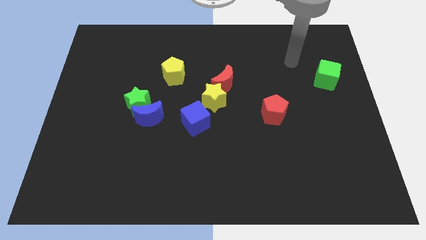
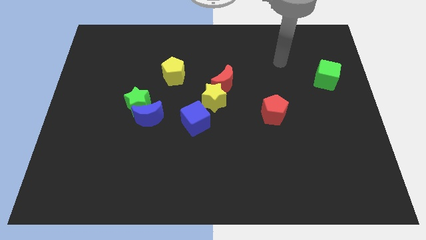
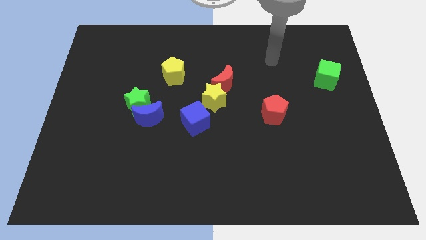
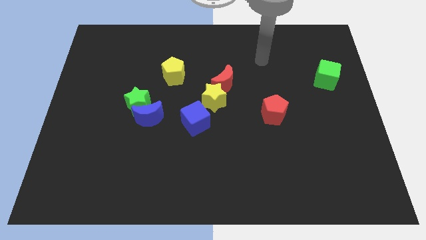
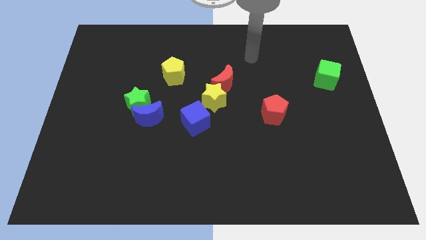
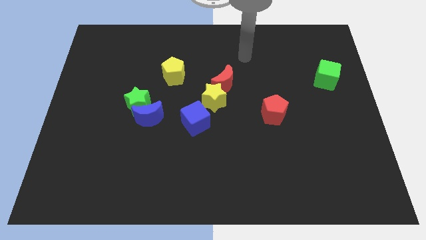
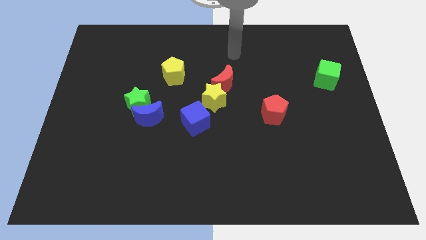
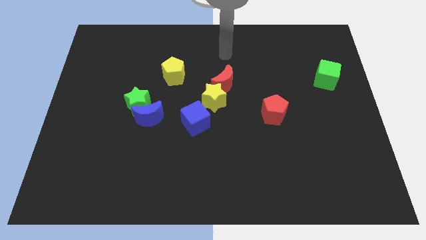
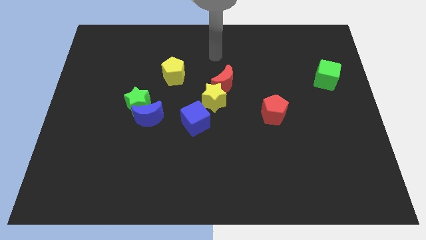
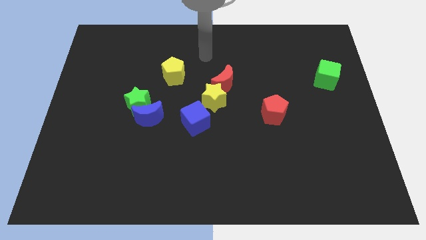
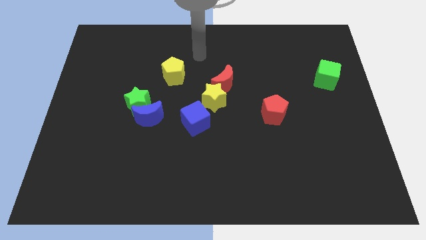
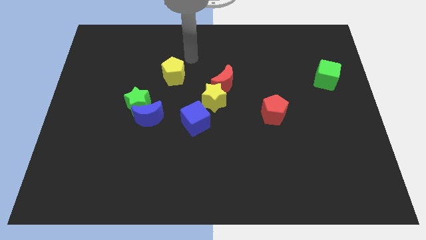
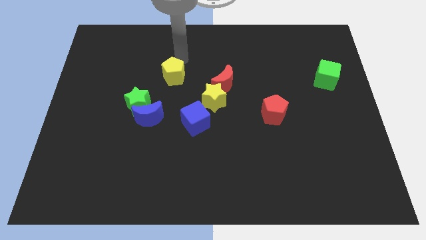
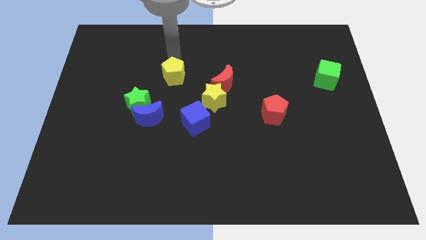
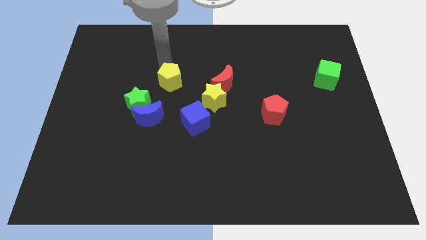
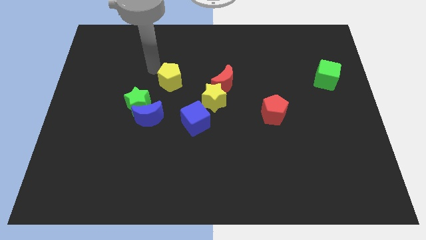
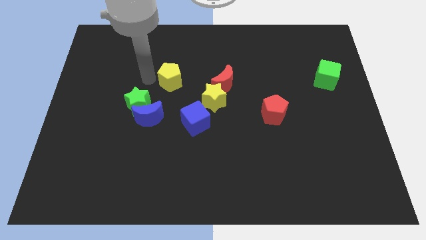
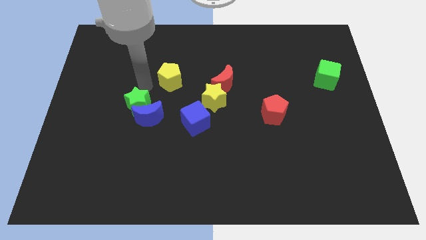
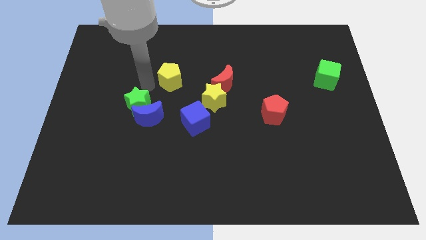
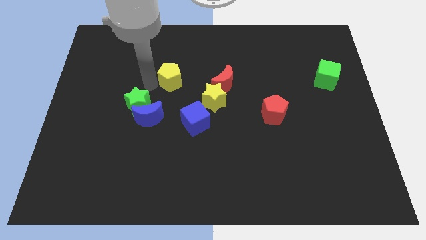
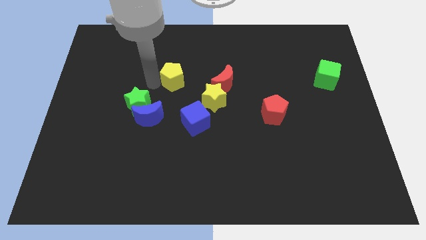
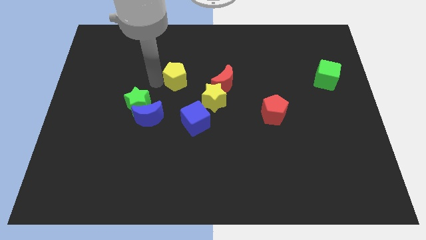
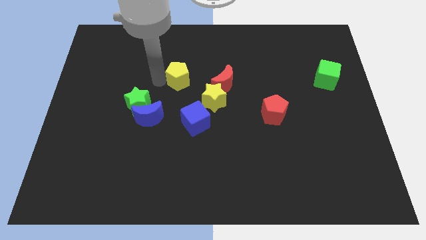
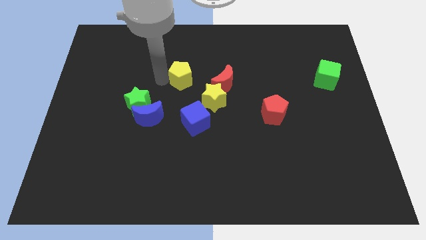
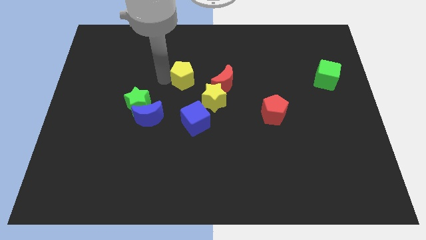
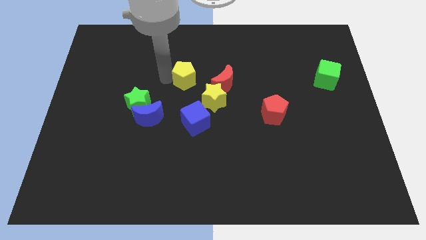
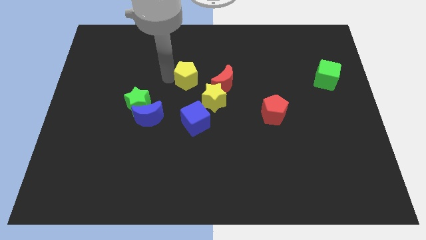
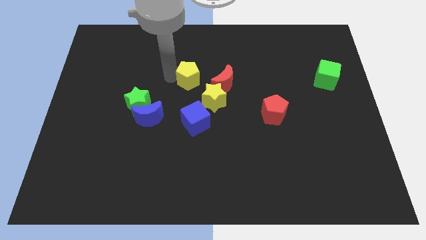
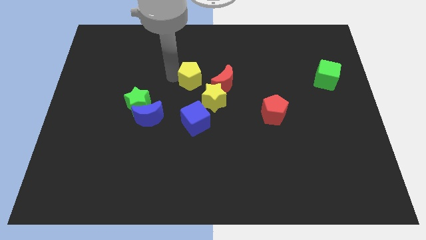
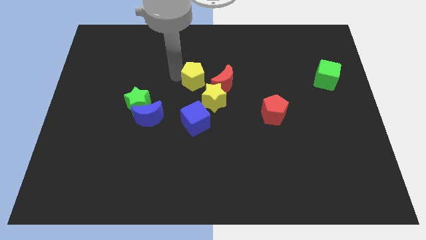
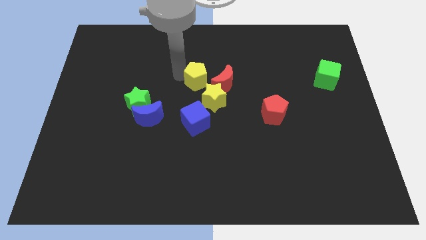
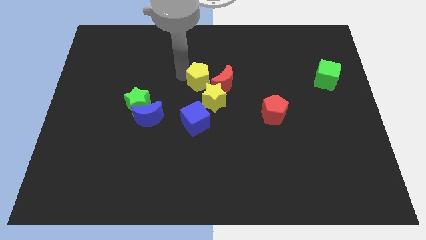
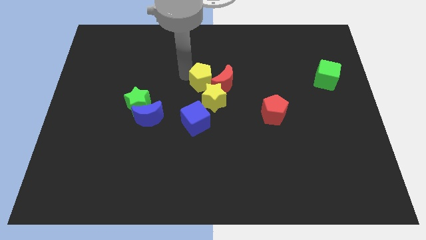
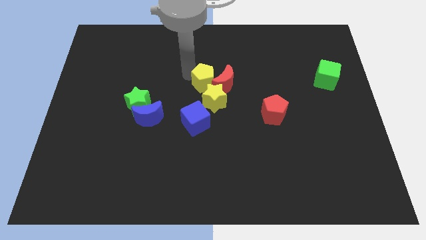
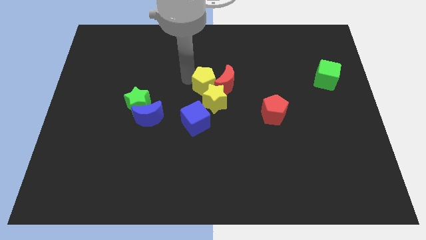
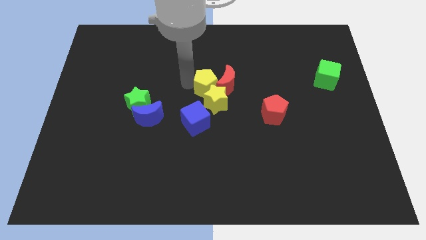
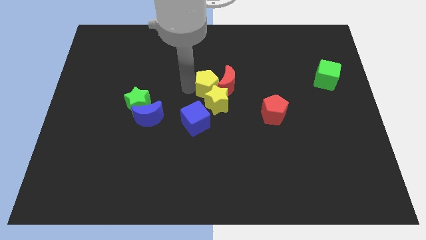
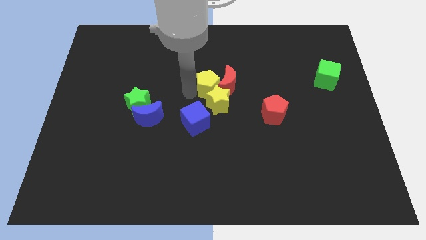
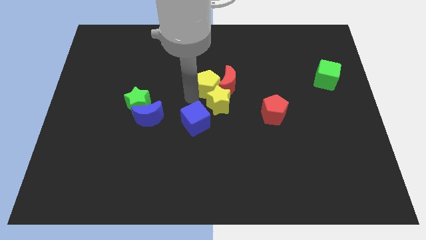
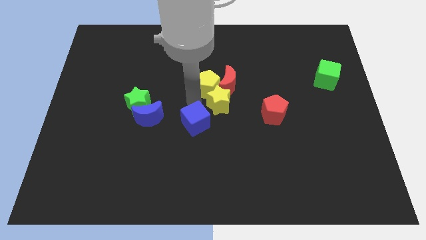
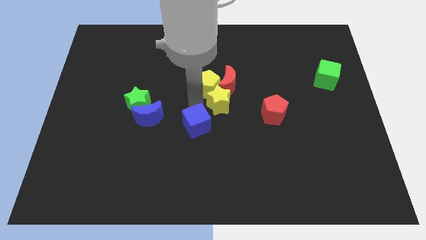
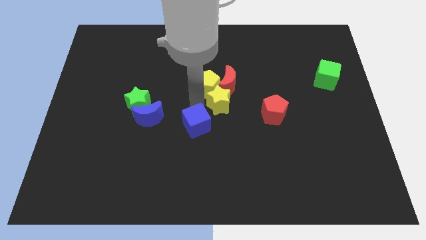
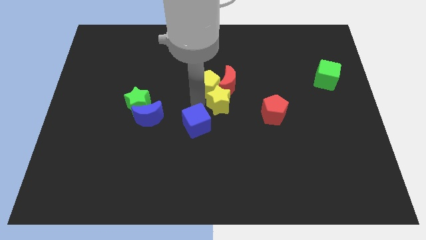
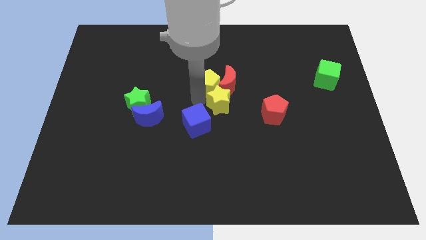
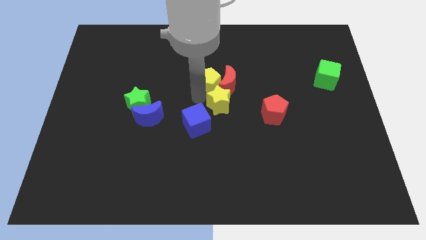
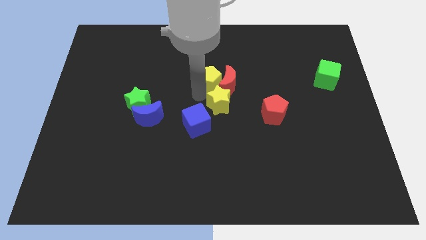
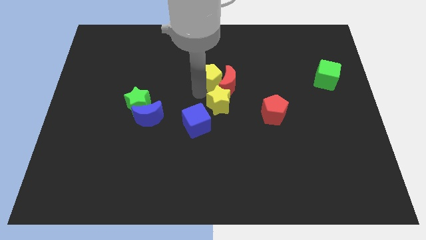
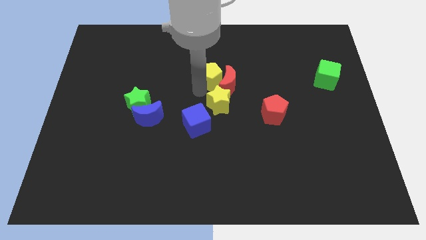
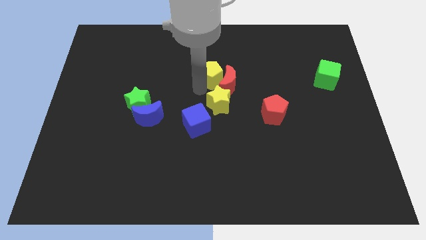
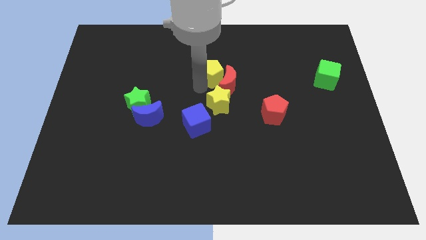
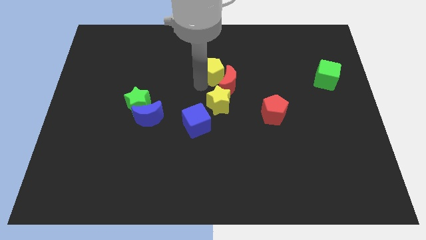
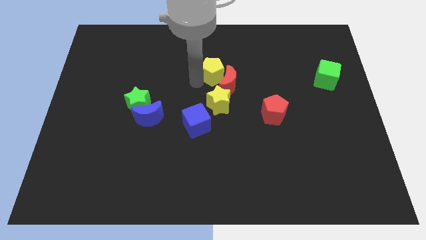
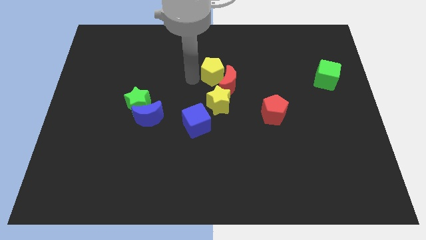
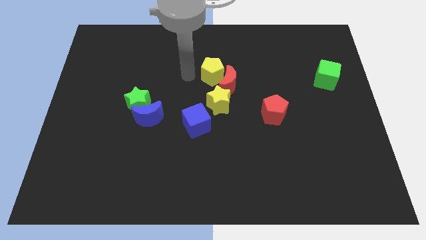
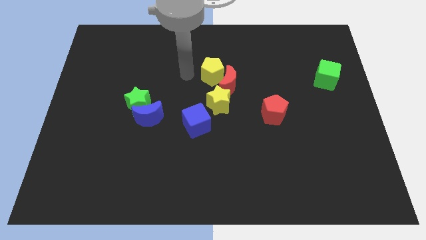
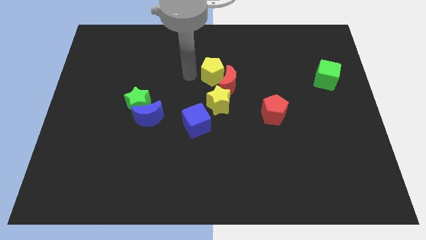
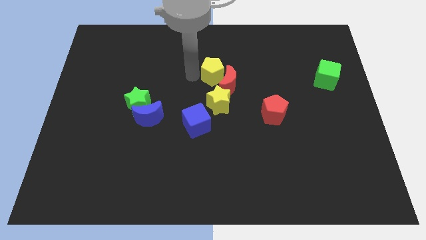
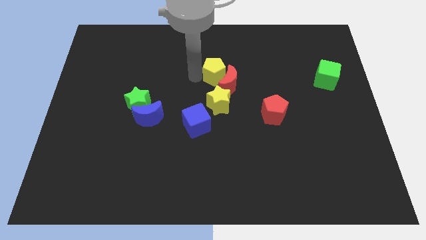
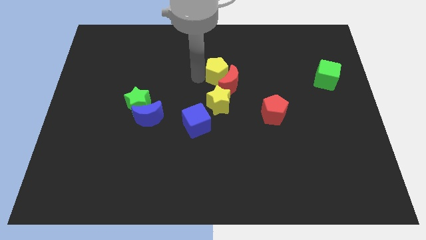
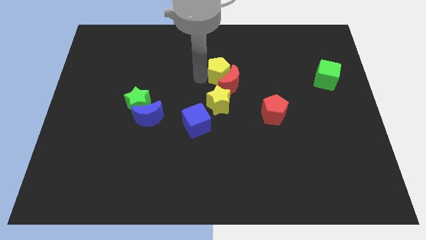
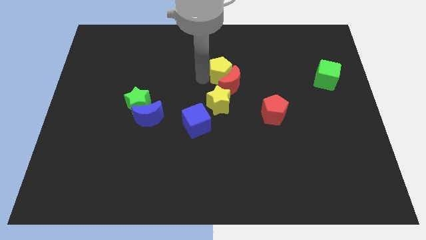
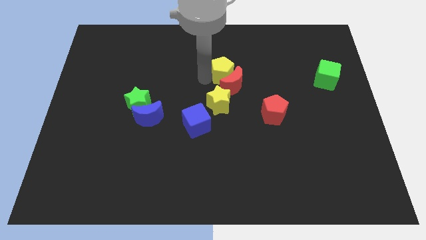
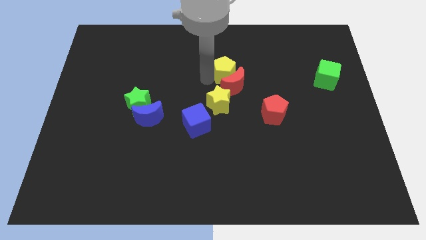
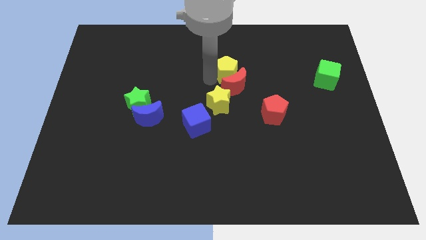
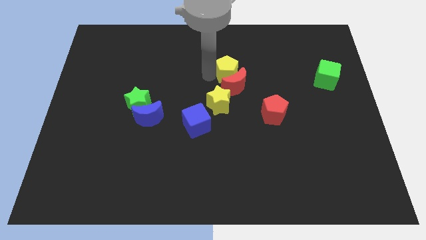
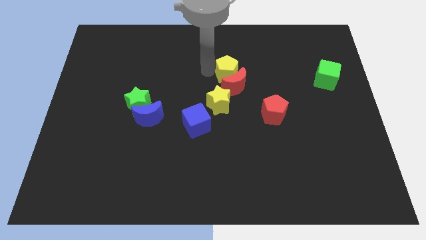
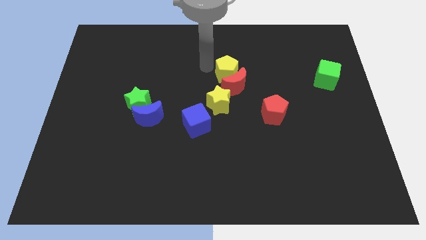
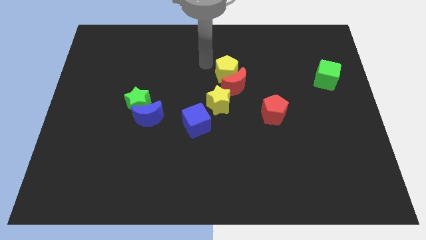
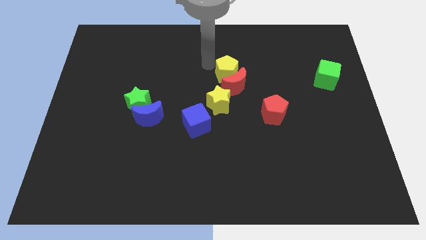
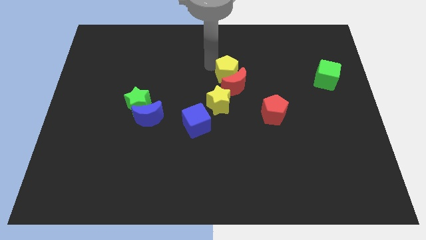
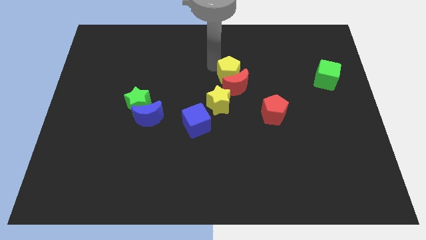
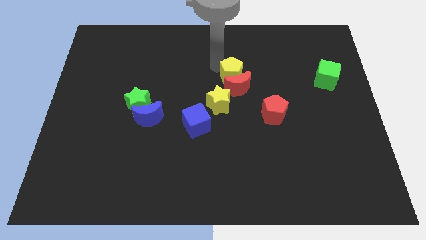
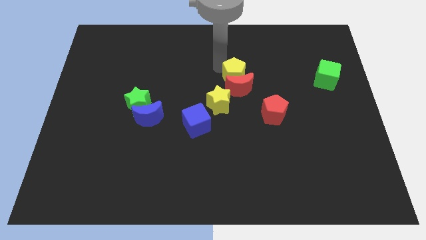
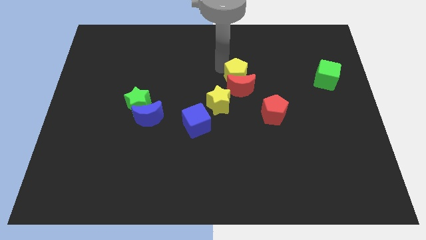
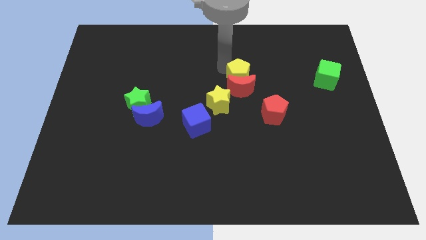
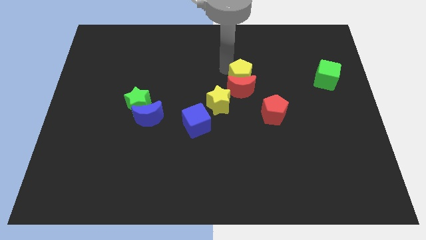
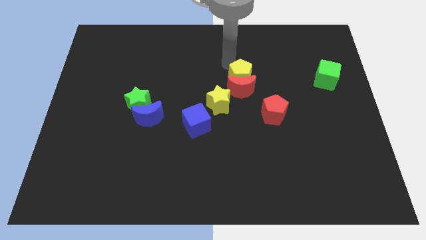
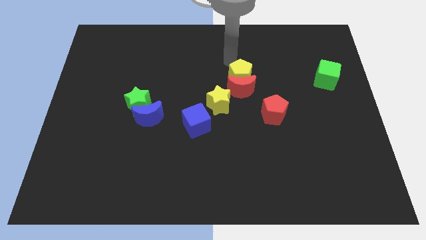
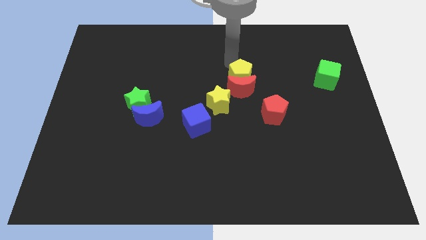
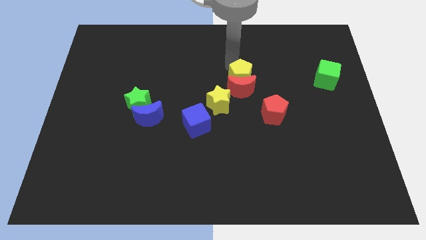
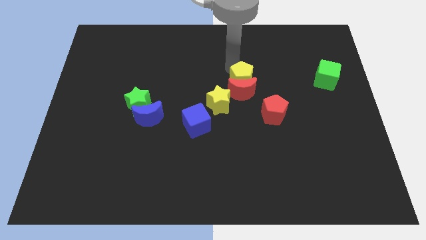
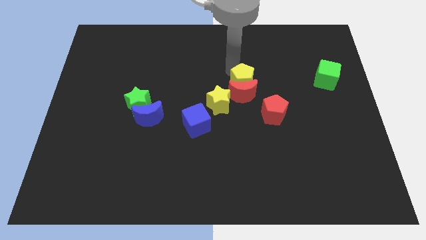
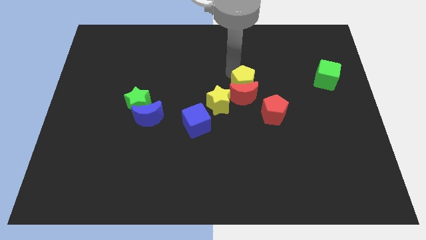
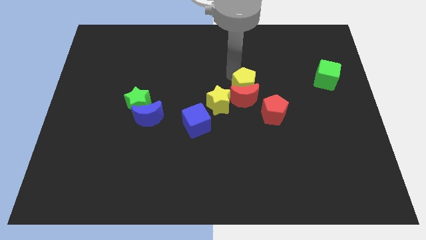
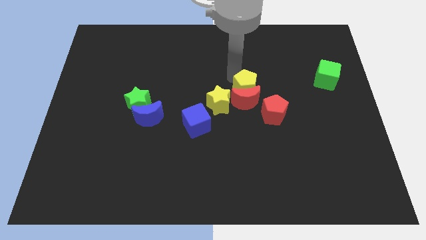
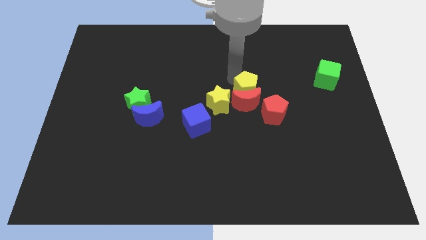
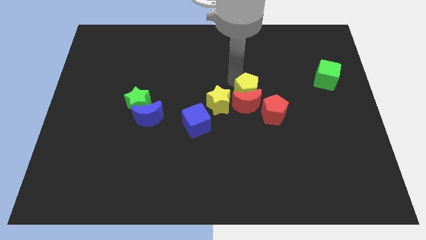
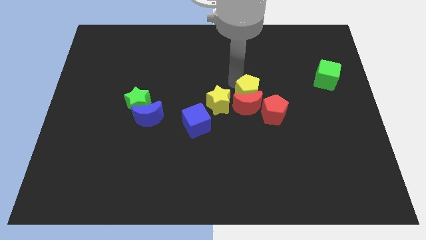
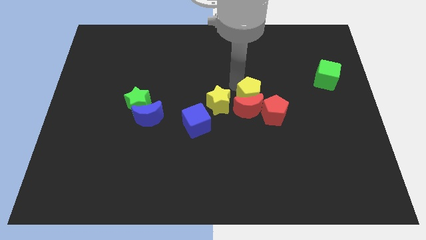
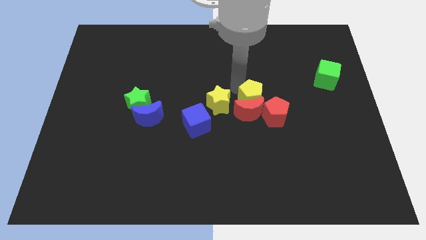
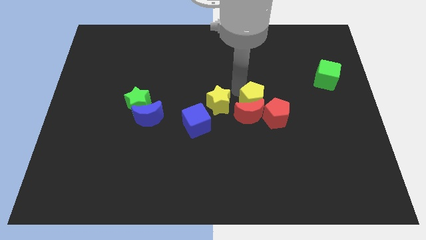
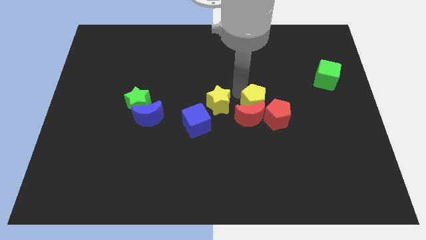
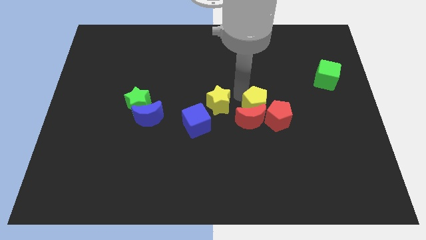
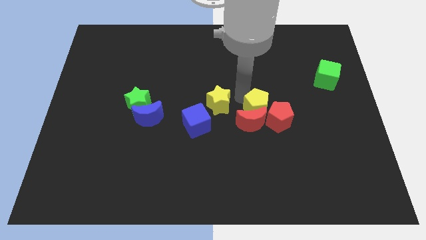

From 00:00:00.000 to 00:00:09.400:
slide the yellow pentagon next to the red pentagon
